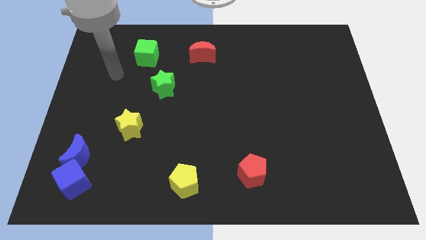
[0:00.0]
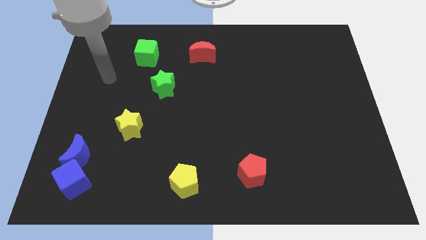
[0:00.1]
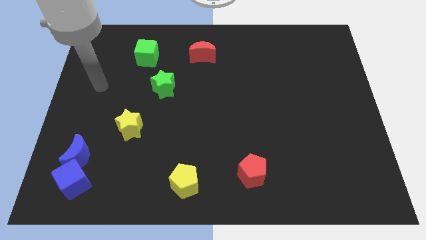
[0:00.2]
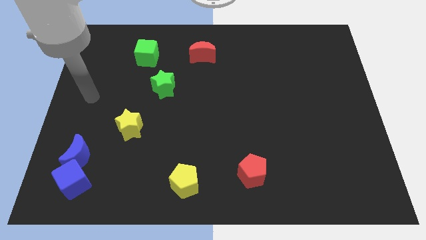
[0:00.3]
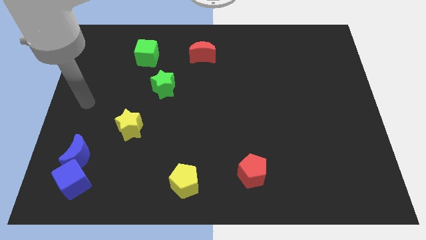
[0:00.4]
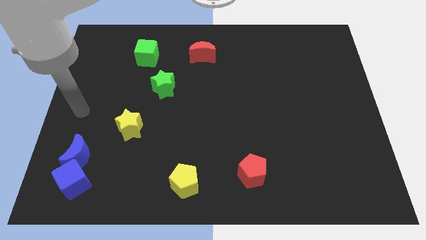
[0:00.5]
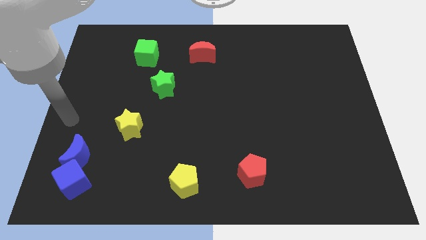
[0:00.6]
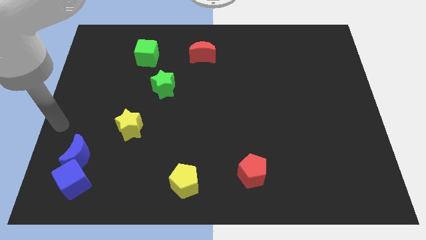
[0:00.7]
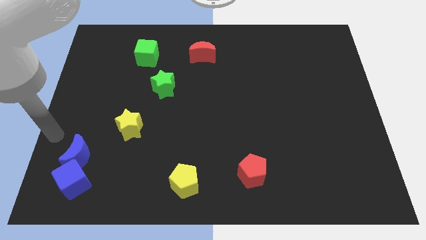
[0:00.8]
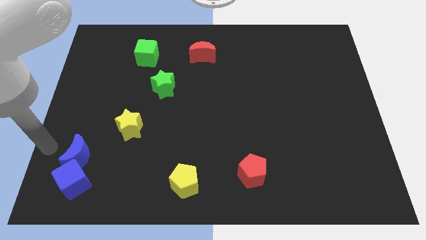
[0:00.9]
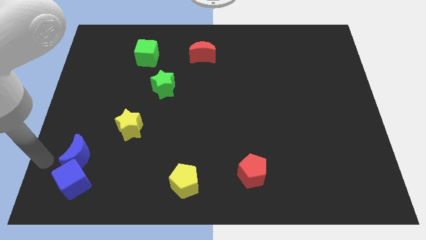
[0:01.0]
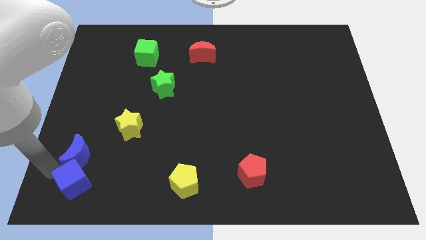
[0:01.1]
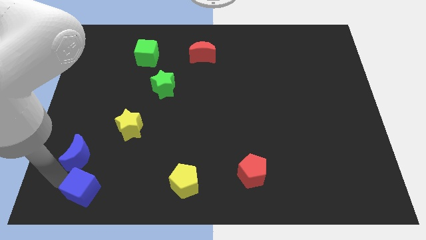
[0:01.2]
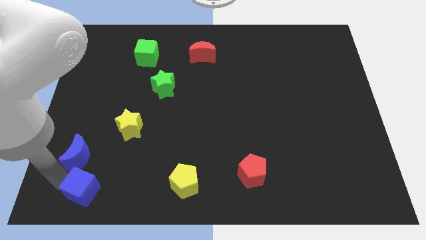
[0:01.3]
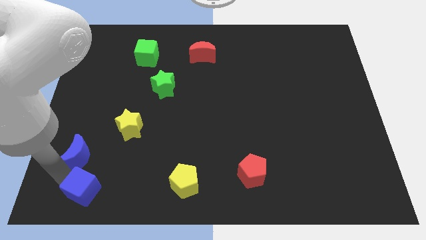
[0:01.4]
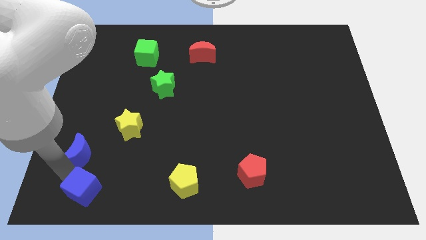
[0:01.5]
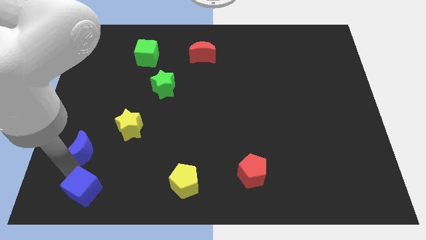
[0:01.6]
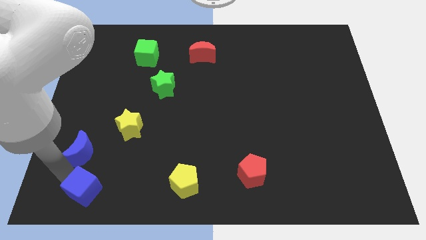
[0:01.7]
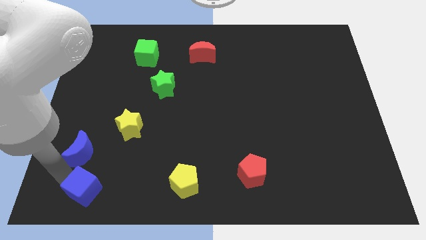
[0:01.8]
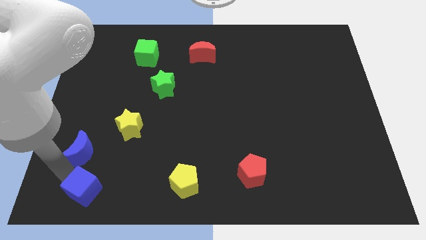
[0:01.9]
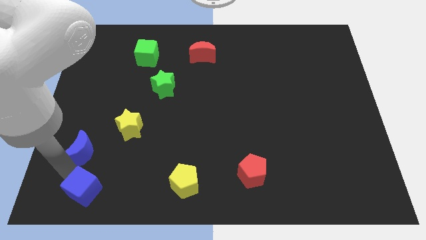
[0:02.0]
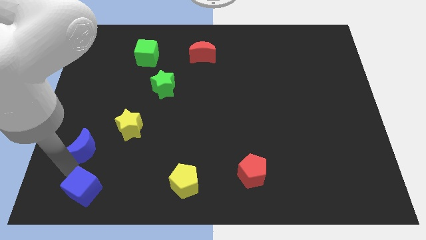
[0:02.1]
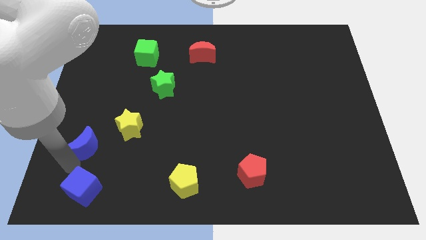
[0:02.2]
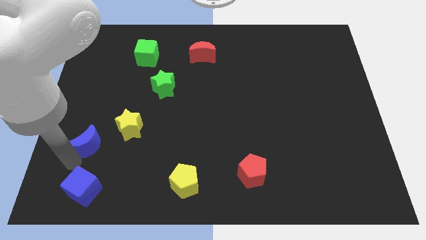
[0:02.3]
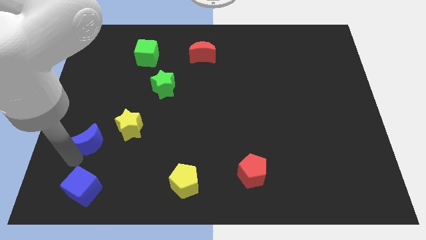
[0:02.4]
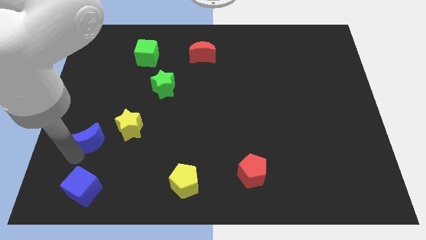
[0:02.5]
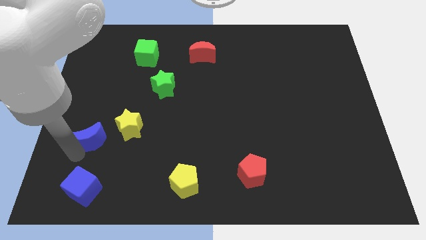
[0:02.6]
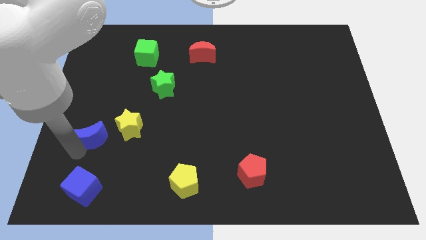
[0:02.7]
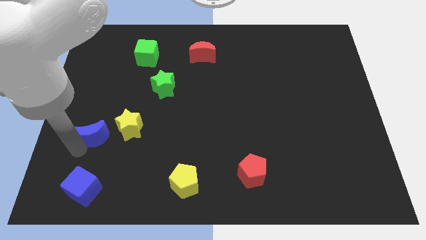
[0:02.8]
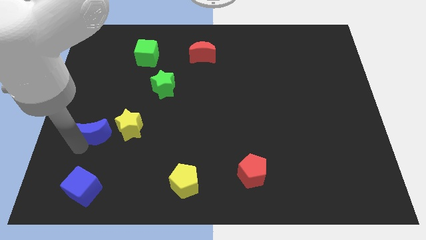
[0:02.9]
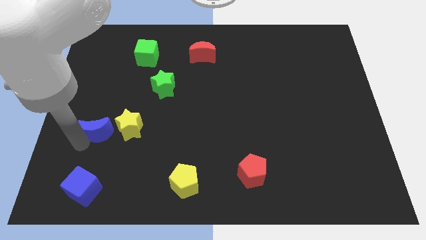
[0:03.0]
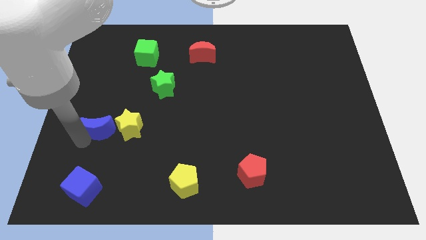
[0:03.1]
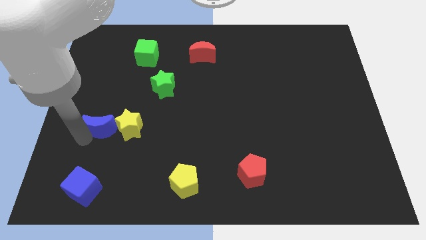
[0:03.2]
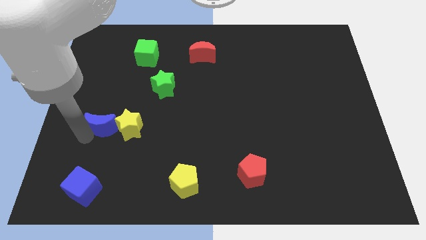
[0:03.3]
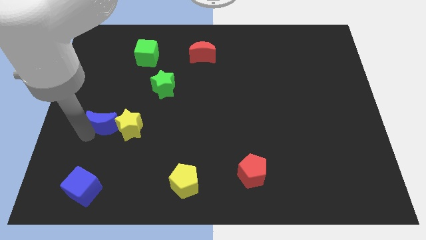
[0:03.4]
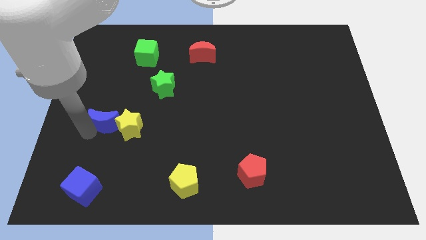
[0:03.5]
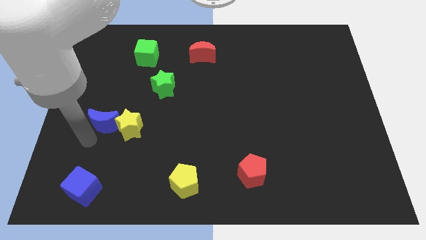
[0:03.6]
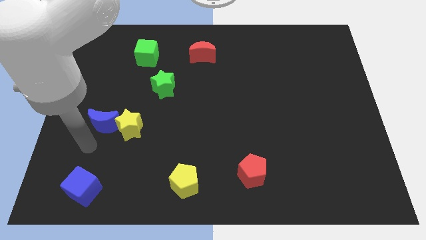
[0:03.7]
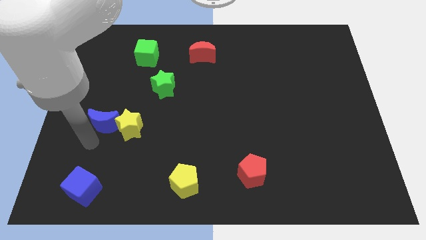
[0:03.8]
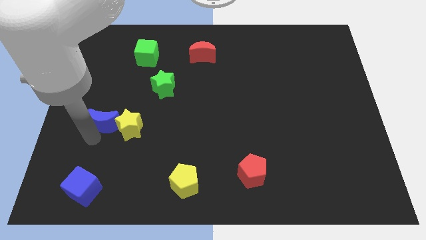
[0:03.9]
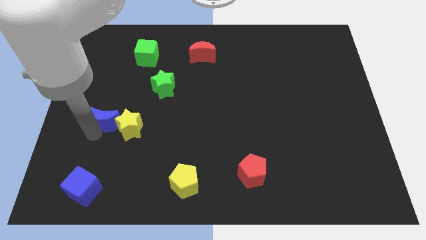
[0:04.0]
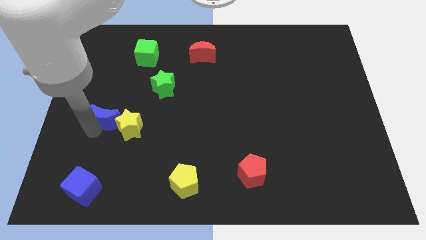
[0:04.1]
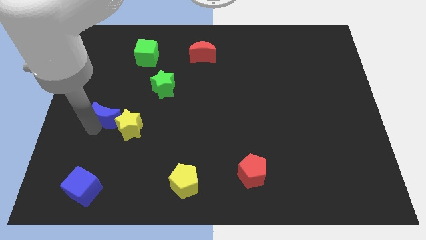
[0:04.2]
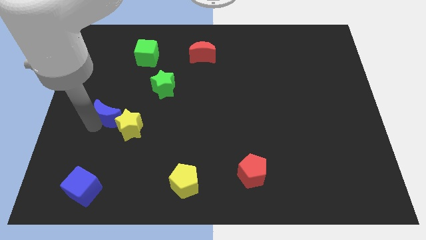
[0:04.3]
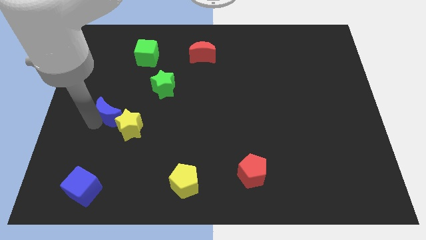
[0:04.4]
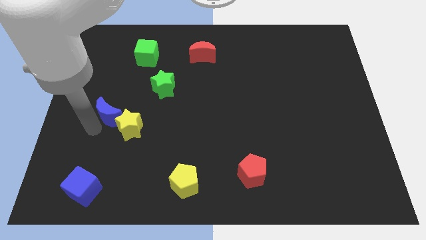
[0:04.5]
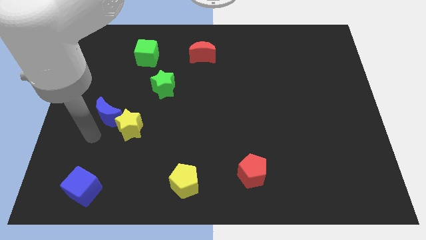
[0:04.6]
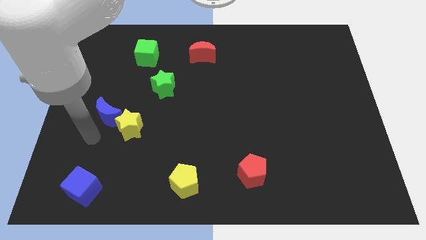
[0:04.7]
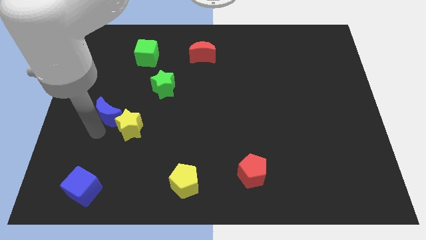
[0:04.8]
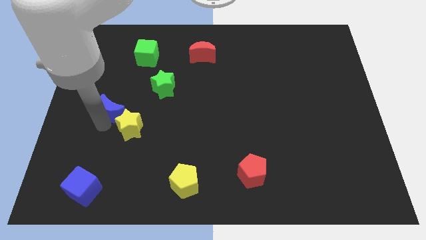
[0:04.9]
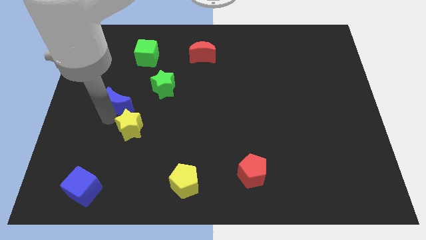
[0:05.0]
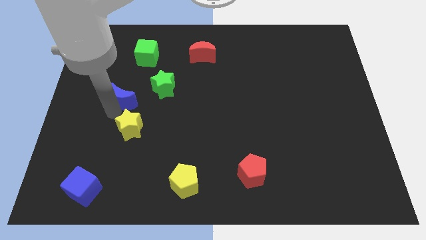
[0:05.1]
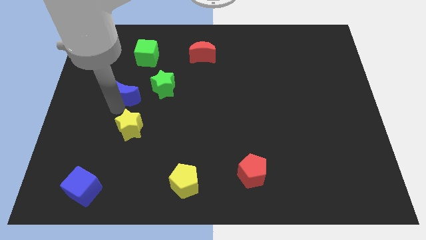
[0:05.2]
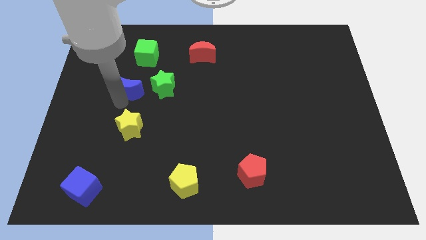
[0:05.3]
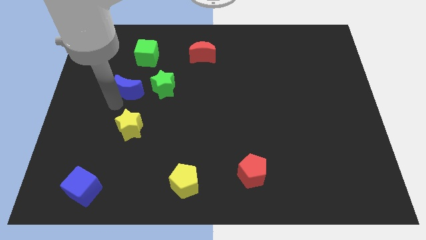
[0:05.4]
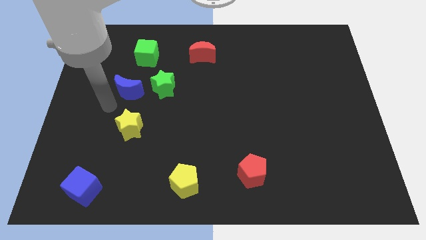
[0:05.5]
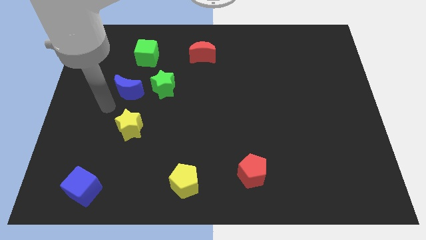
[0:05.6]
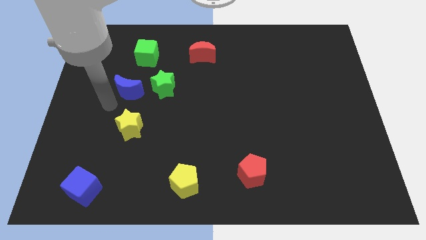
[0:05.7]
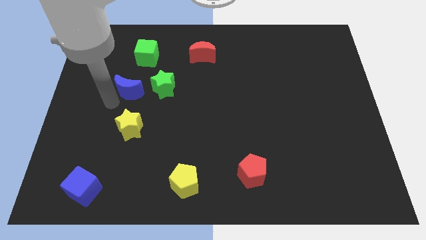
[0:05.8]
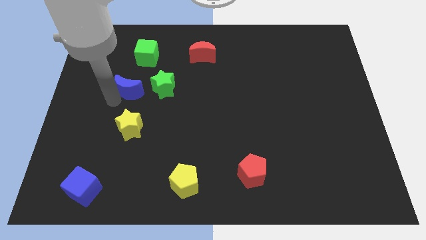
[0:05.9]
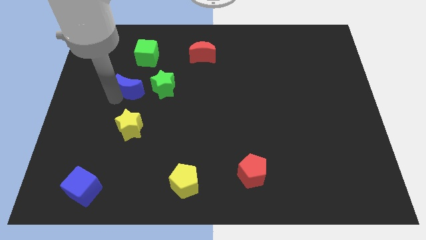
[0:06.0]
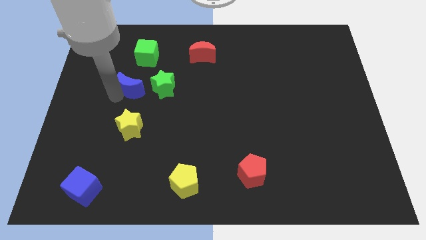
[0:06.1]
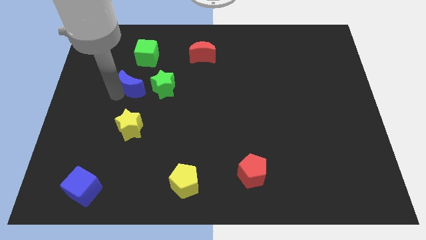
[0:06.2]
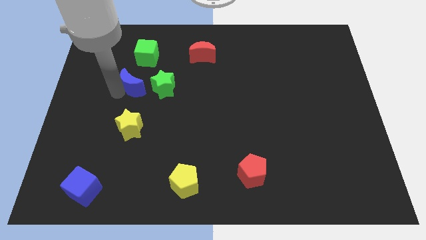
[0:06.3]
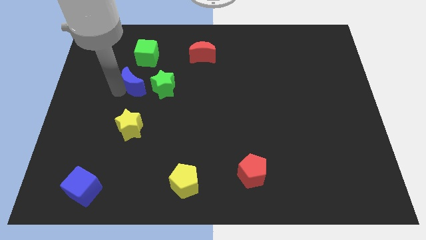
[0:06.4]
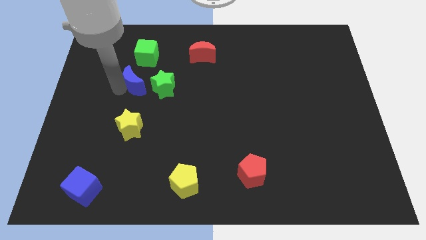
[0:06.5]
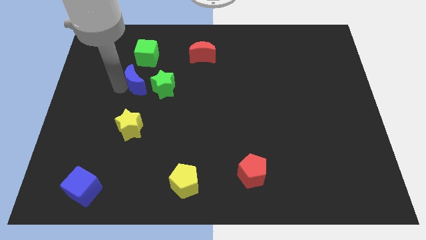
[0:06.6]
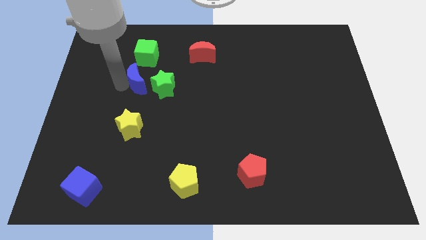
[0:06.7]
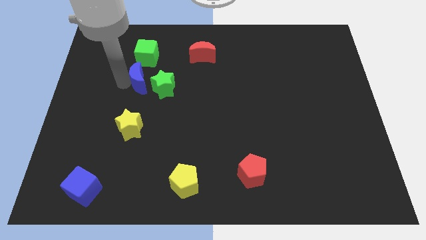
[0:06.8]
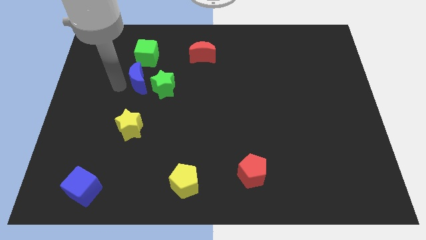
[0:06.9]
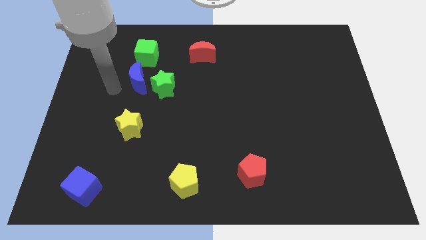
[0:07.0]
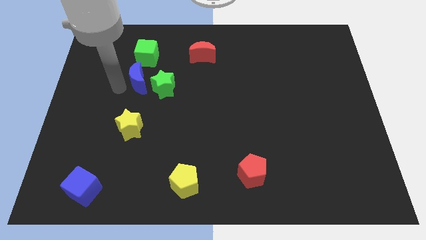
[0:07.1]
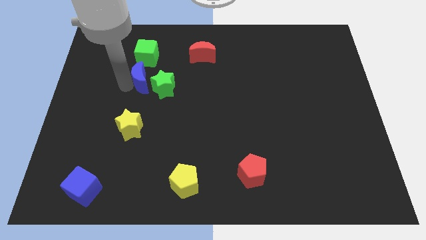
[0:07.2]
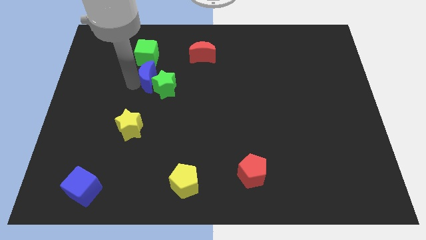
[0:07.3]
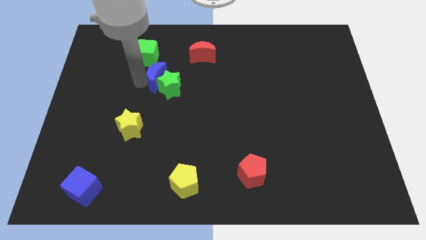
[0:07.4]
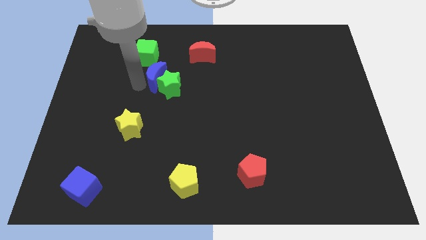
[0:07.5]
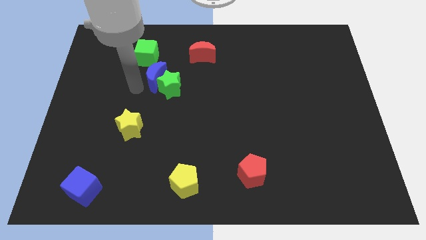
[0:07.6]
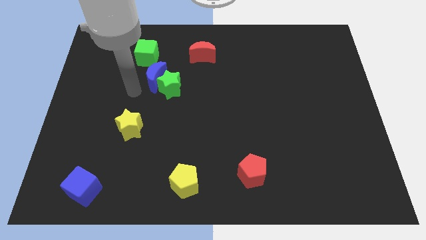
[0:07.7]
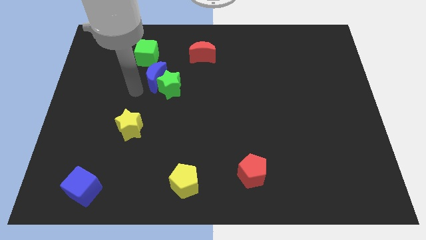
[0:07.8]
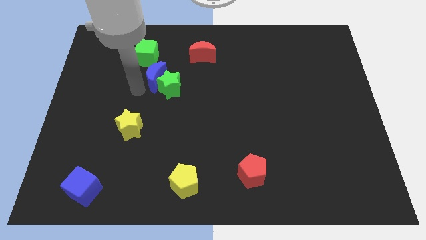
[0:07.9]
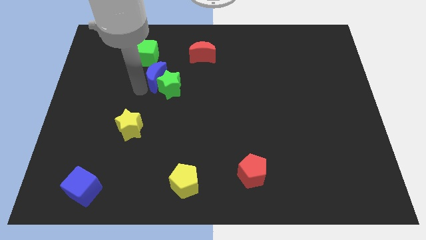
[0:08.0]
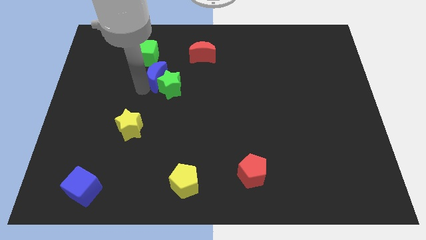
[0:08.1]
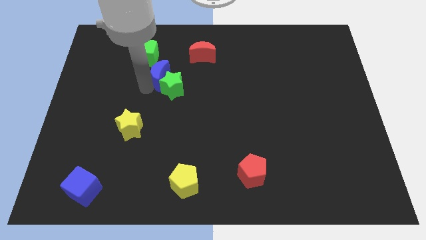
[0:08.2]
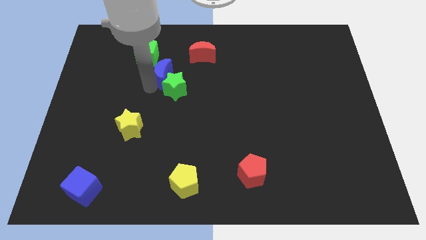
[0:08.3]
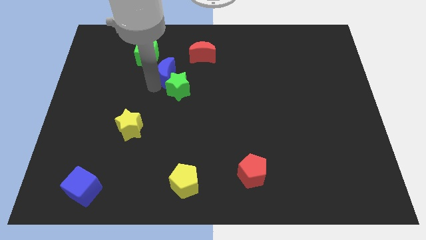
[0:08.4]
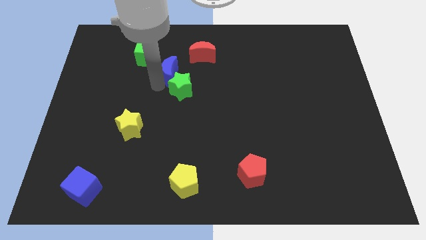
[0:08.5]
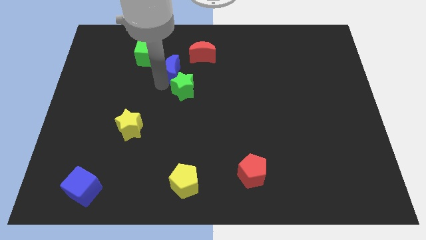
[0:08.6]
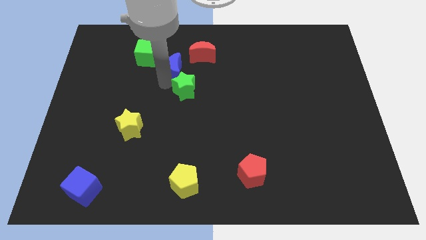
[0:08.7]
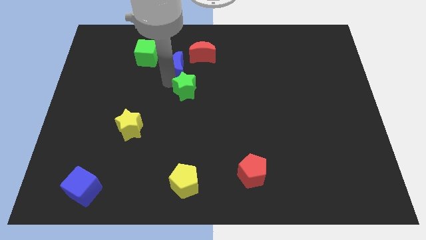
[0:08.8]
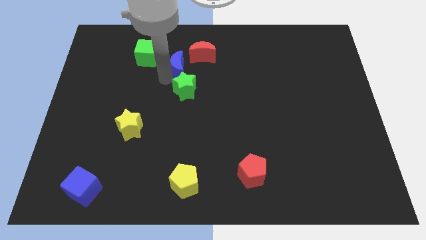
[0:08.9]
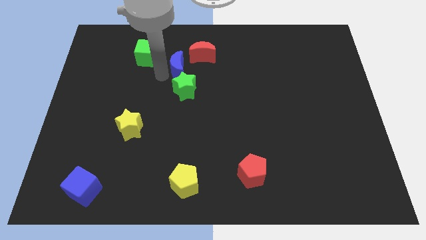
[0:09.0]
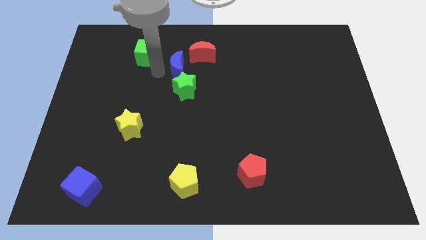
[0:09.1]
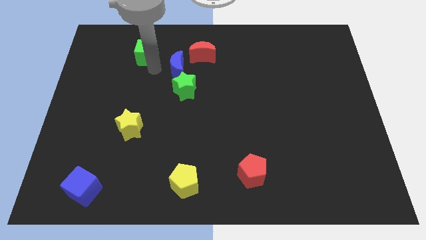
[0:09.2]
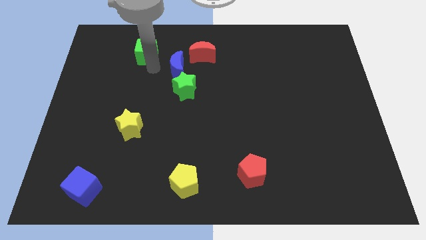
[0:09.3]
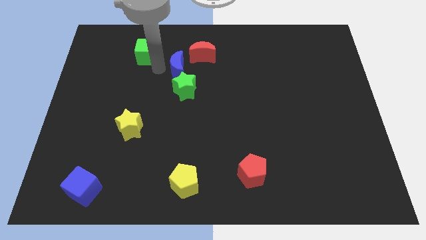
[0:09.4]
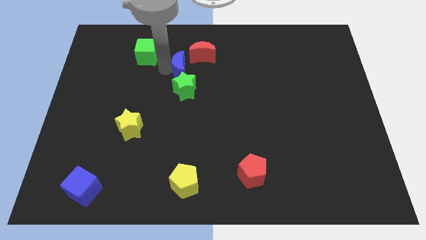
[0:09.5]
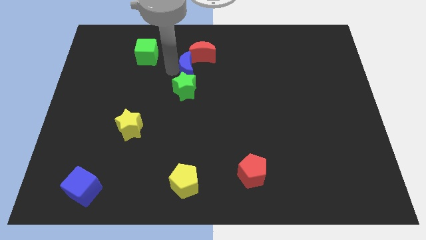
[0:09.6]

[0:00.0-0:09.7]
move the blue moon to the top right side of the green star
